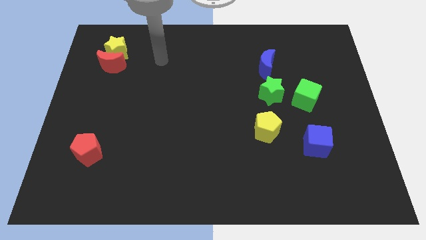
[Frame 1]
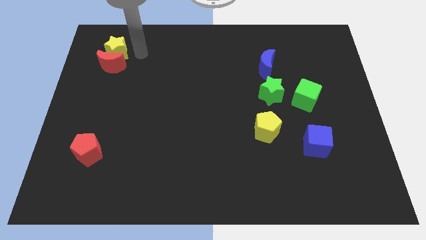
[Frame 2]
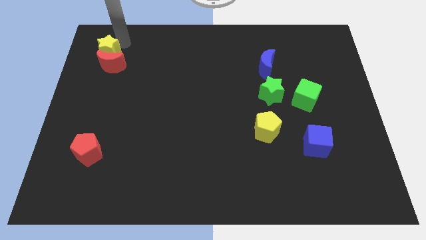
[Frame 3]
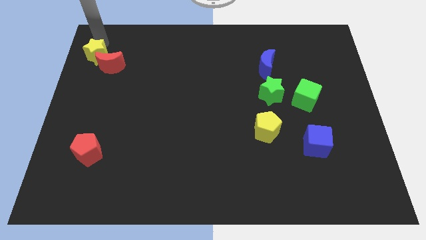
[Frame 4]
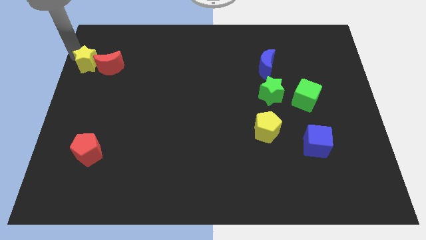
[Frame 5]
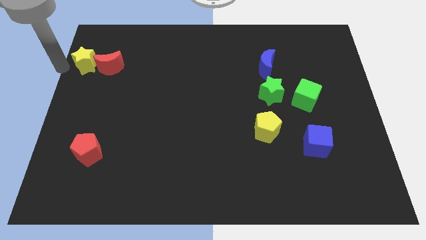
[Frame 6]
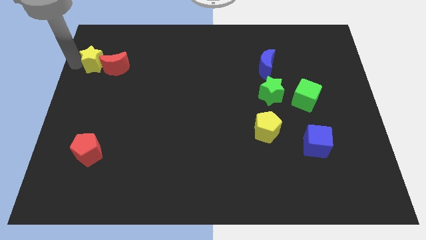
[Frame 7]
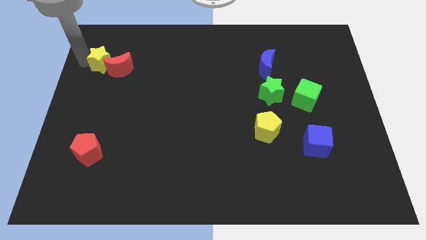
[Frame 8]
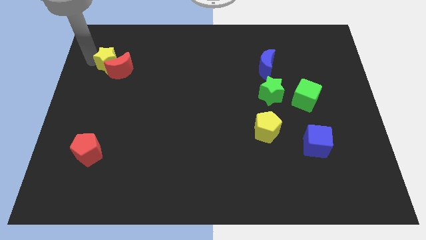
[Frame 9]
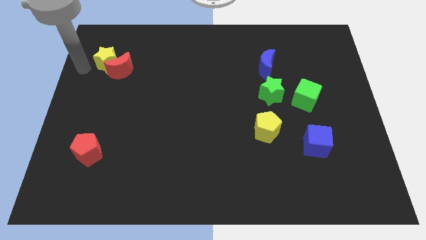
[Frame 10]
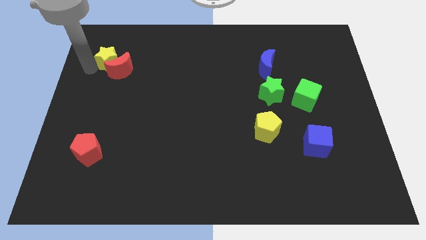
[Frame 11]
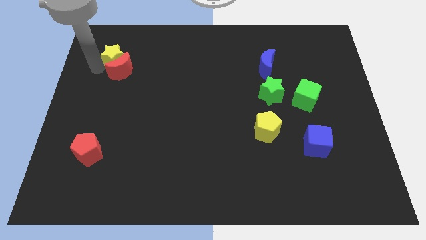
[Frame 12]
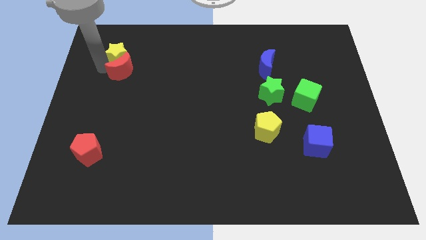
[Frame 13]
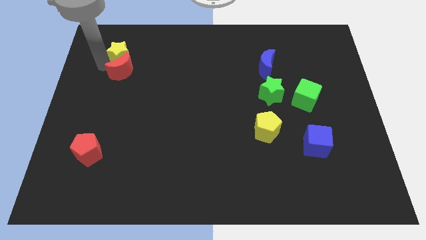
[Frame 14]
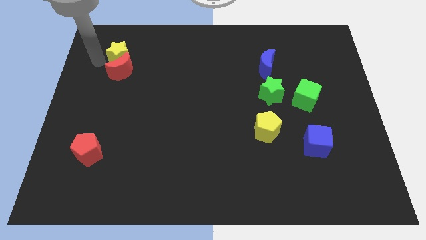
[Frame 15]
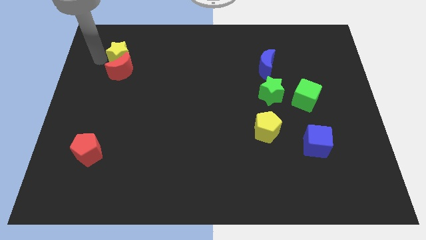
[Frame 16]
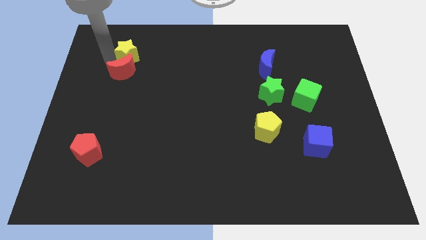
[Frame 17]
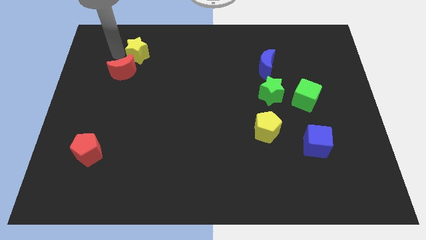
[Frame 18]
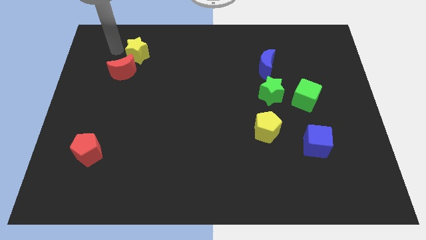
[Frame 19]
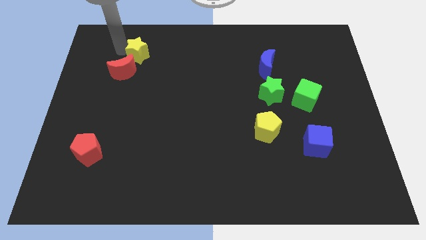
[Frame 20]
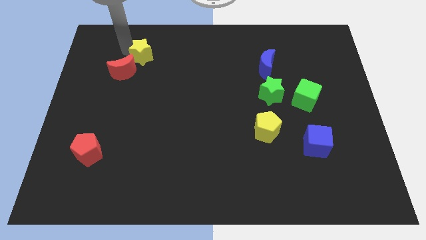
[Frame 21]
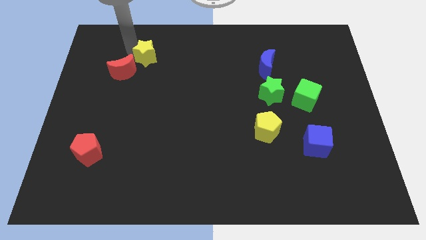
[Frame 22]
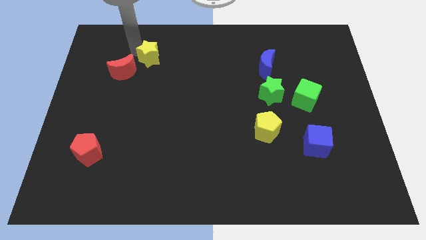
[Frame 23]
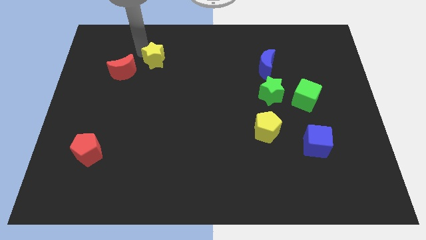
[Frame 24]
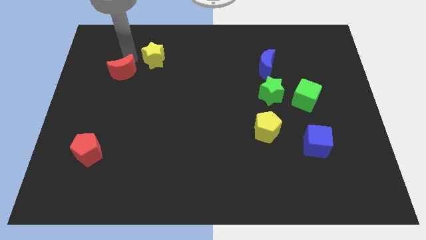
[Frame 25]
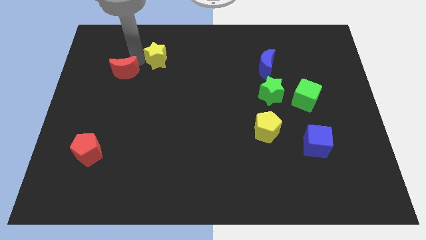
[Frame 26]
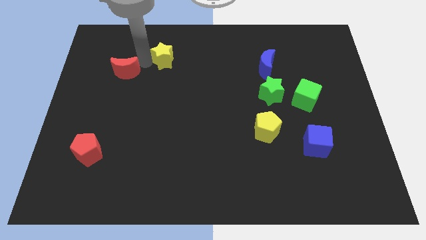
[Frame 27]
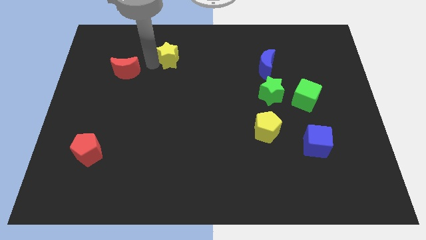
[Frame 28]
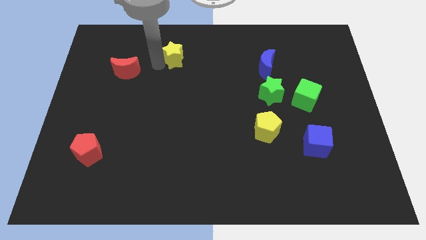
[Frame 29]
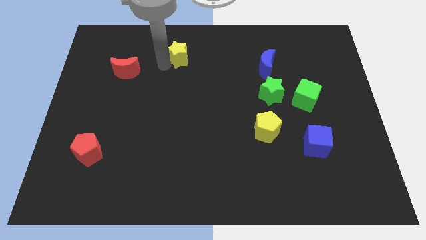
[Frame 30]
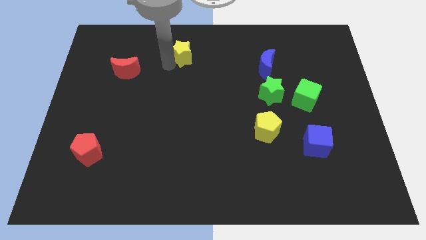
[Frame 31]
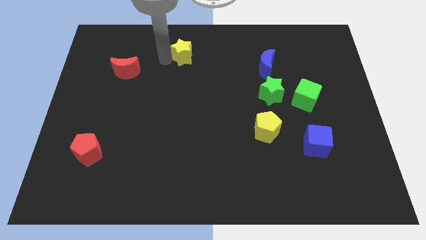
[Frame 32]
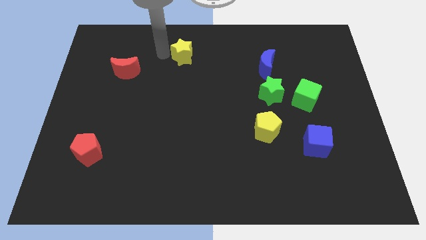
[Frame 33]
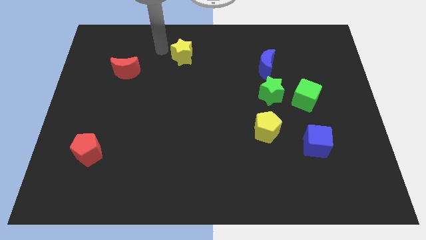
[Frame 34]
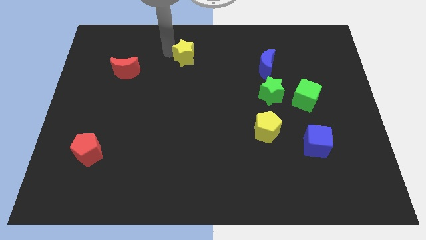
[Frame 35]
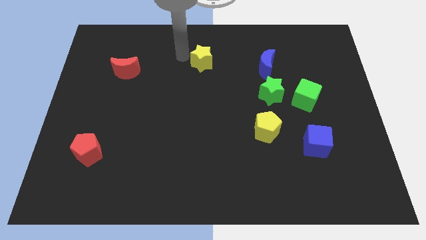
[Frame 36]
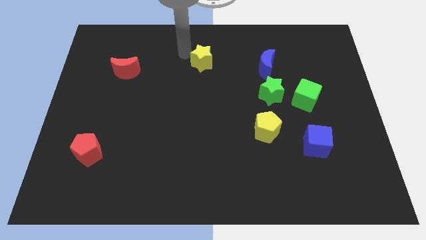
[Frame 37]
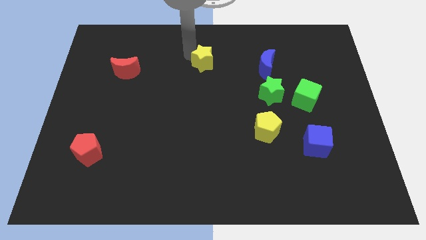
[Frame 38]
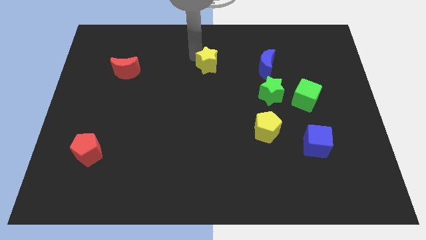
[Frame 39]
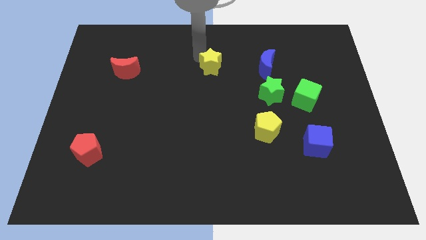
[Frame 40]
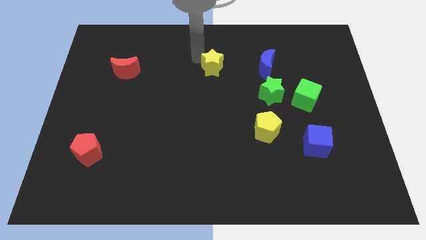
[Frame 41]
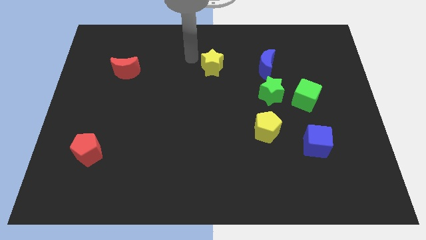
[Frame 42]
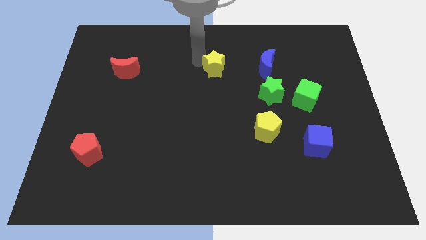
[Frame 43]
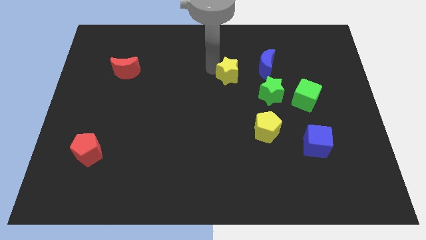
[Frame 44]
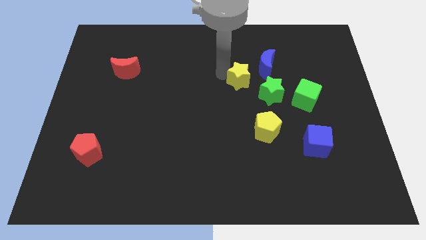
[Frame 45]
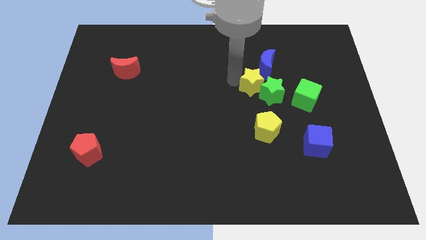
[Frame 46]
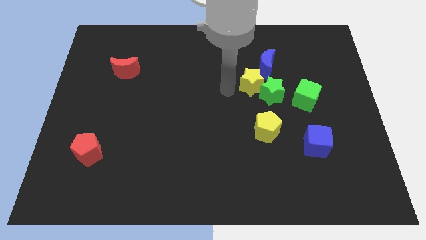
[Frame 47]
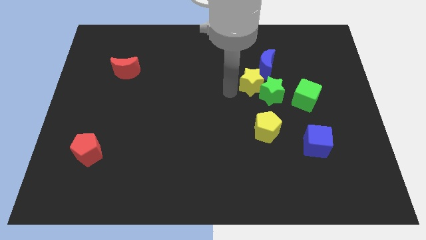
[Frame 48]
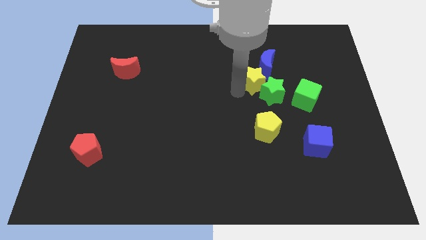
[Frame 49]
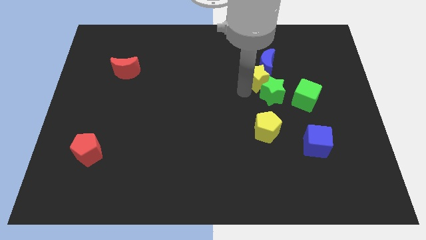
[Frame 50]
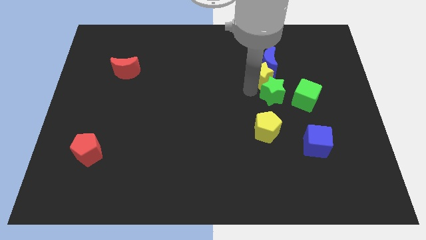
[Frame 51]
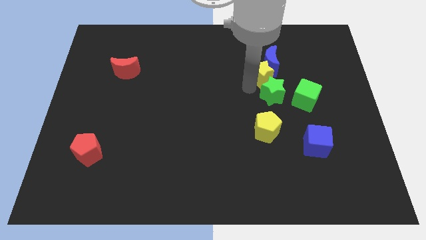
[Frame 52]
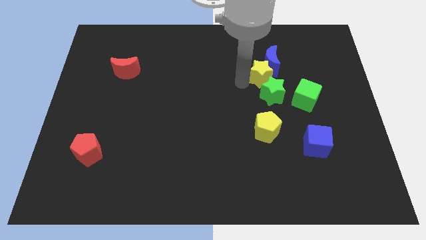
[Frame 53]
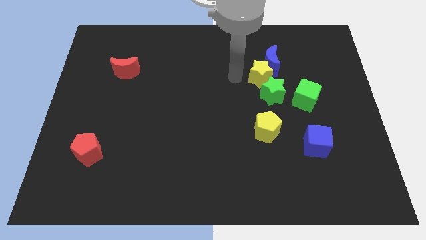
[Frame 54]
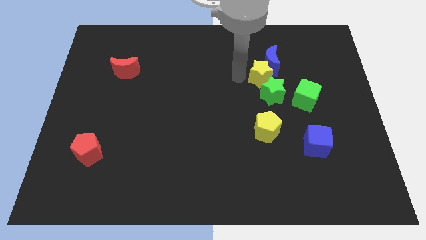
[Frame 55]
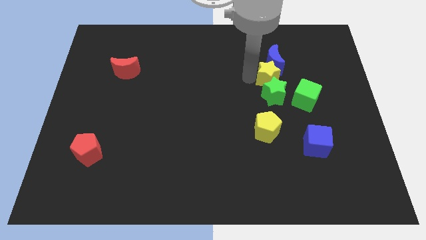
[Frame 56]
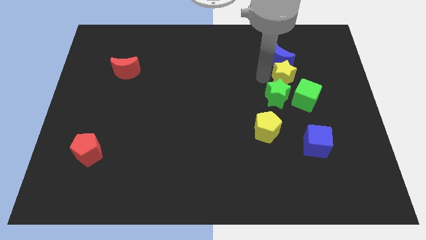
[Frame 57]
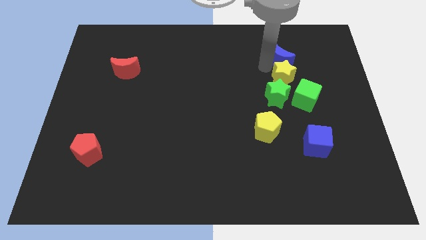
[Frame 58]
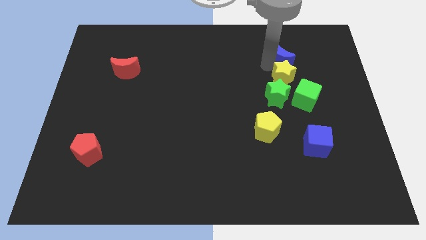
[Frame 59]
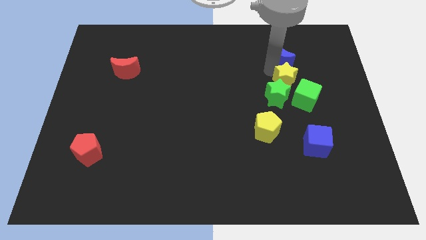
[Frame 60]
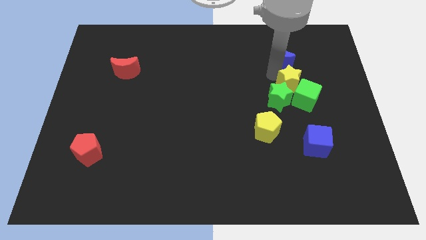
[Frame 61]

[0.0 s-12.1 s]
push the yellow star next to the green cube
